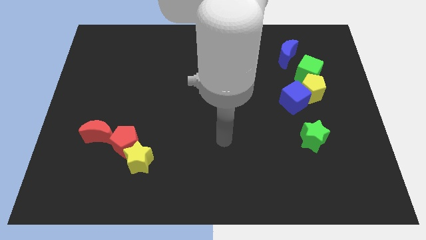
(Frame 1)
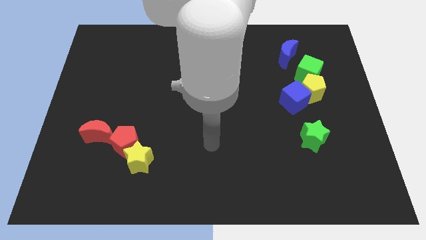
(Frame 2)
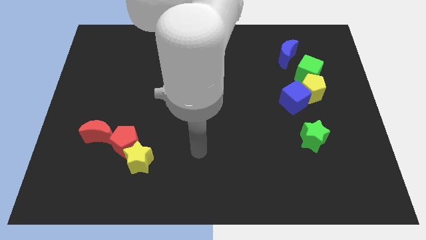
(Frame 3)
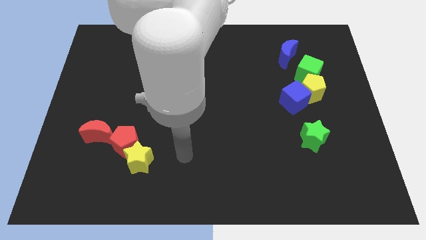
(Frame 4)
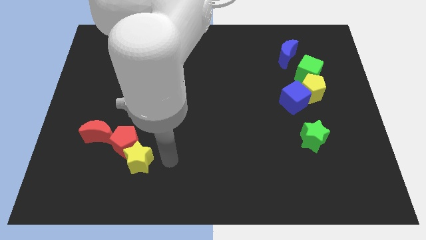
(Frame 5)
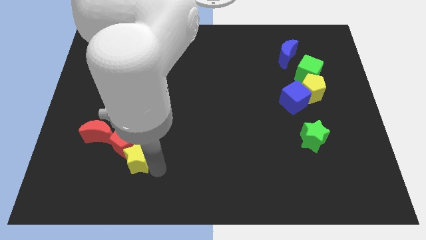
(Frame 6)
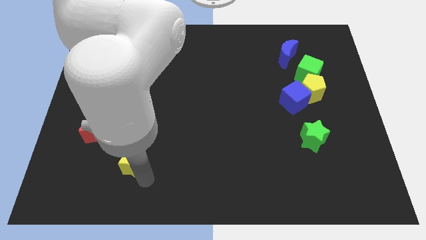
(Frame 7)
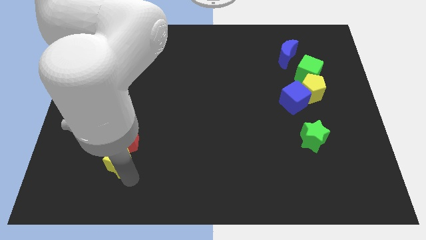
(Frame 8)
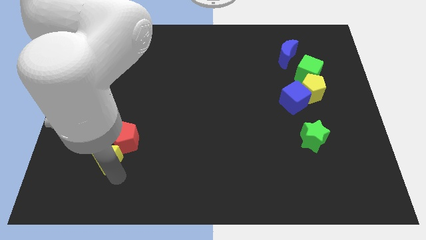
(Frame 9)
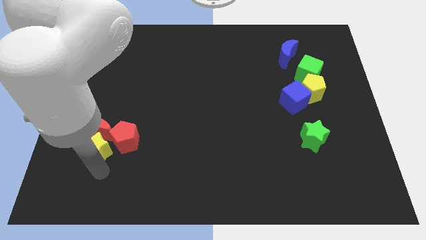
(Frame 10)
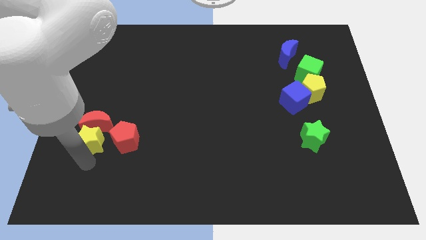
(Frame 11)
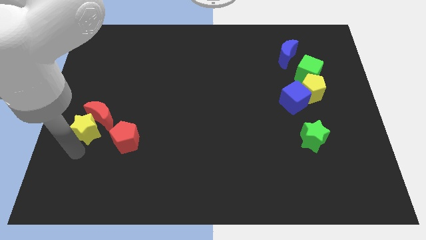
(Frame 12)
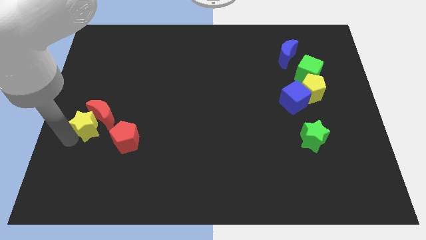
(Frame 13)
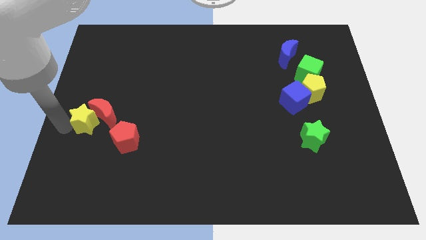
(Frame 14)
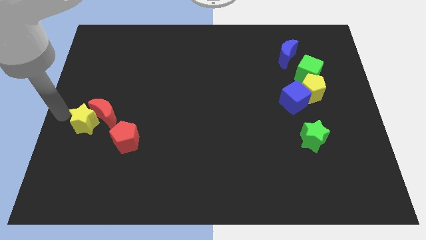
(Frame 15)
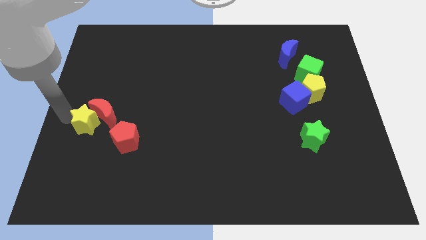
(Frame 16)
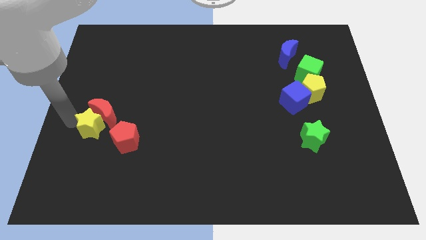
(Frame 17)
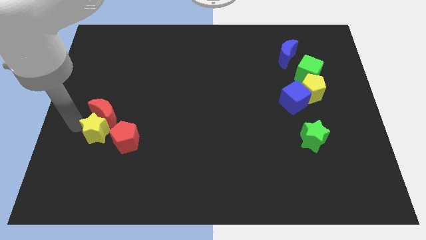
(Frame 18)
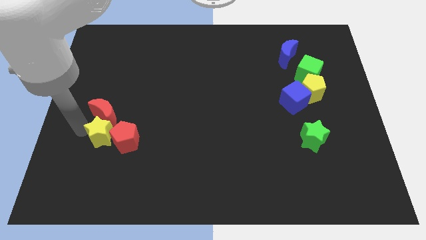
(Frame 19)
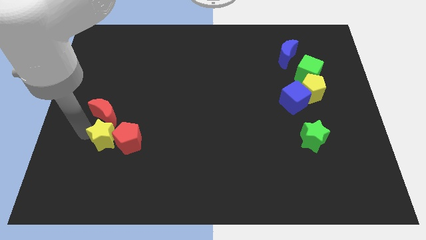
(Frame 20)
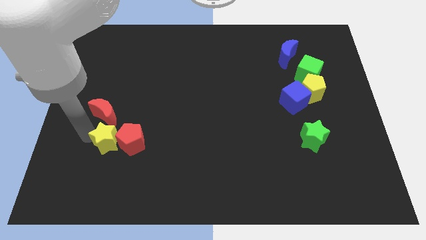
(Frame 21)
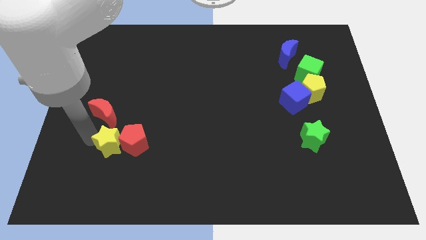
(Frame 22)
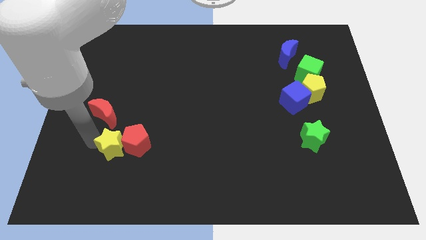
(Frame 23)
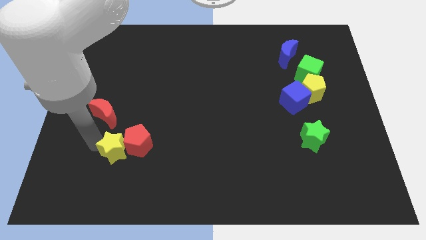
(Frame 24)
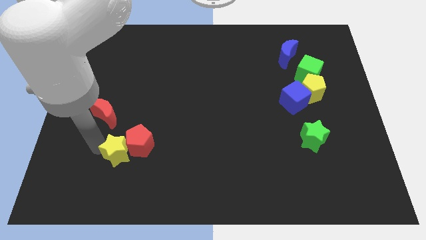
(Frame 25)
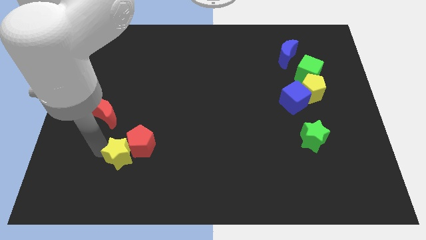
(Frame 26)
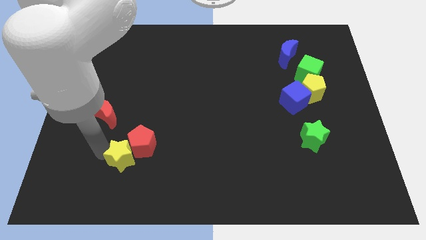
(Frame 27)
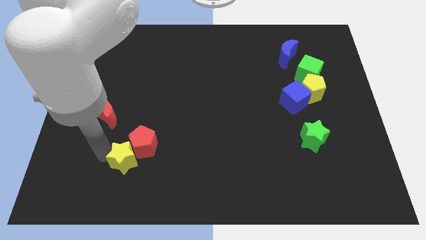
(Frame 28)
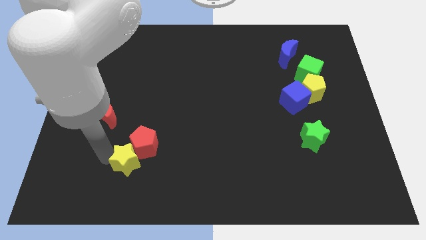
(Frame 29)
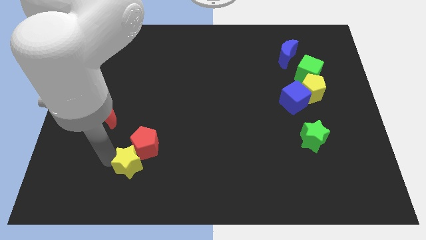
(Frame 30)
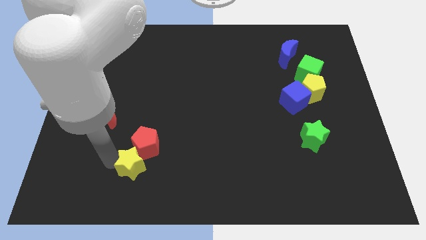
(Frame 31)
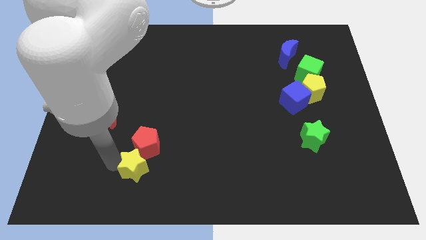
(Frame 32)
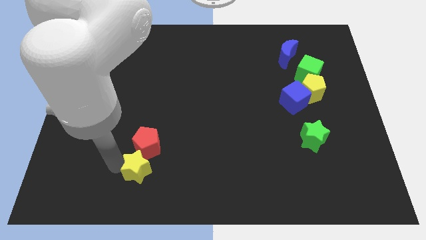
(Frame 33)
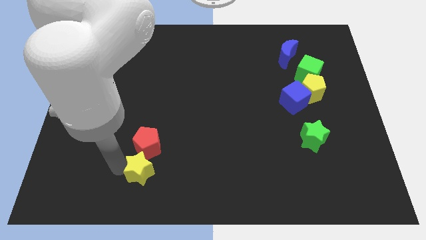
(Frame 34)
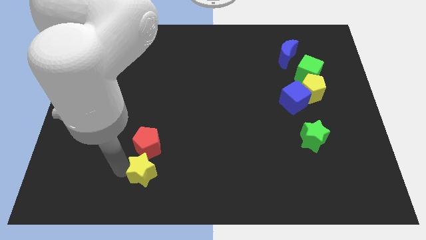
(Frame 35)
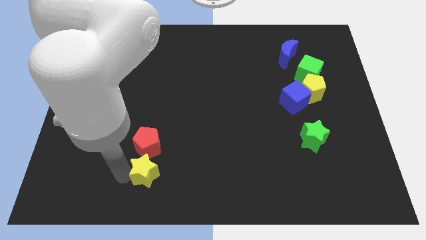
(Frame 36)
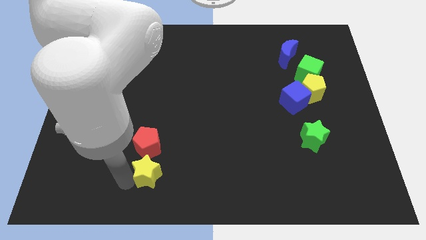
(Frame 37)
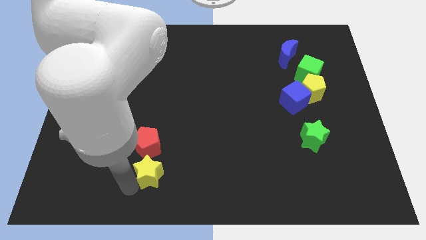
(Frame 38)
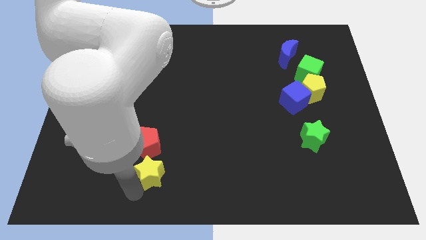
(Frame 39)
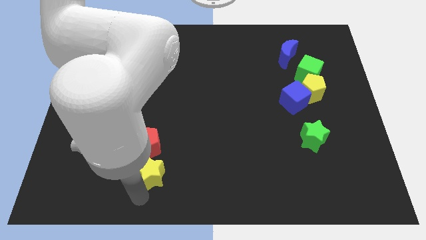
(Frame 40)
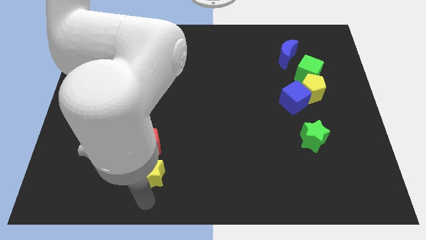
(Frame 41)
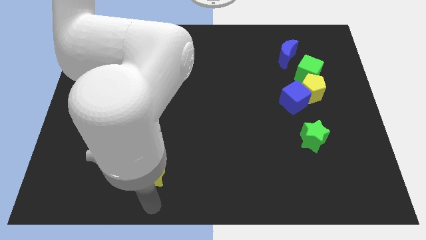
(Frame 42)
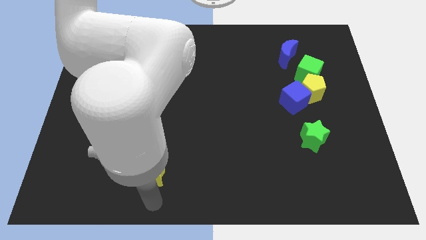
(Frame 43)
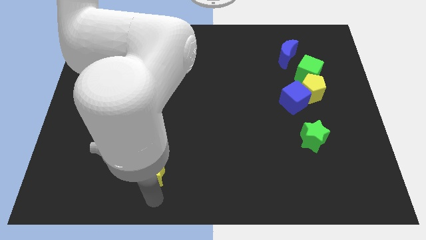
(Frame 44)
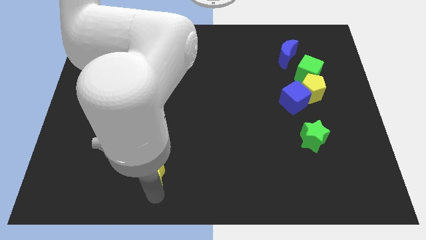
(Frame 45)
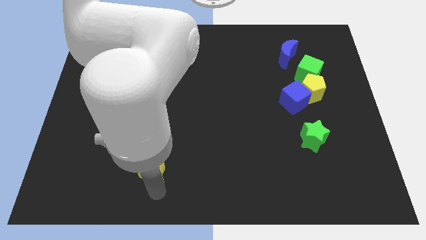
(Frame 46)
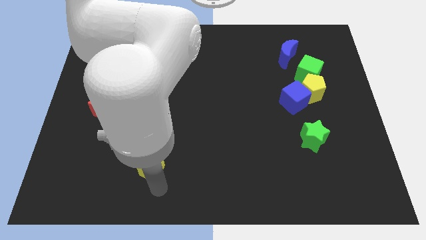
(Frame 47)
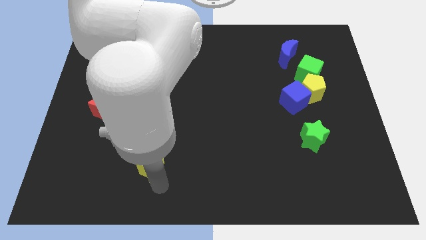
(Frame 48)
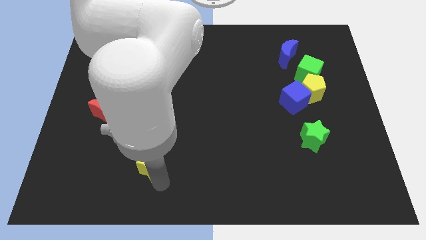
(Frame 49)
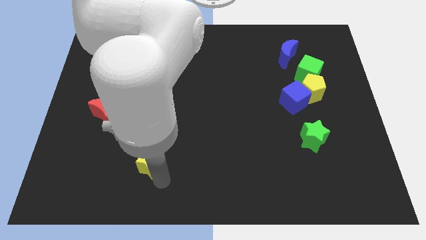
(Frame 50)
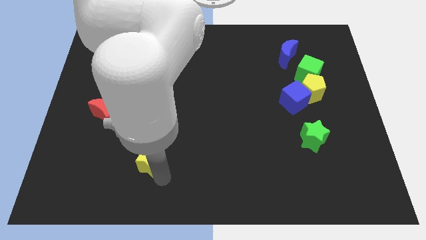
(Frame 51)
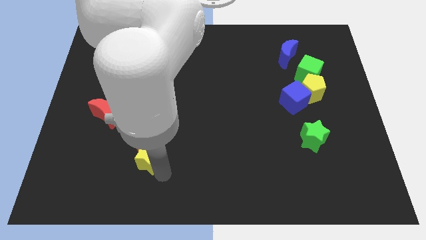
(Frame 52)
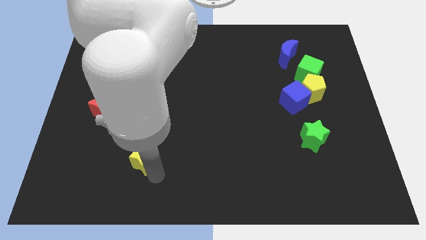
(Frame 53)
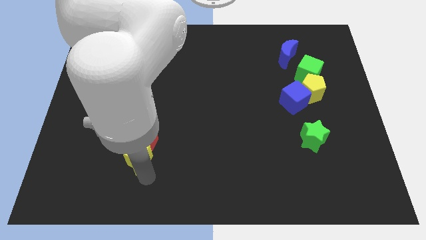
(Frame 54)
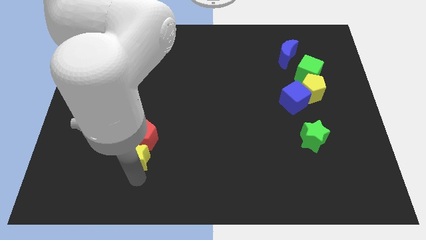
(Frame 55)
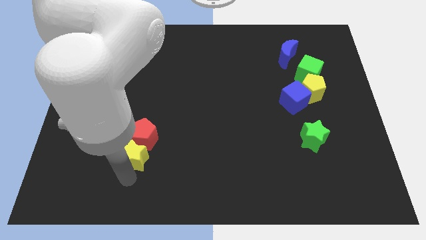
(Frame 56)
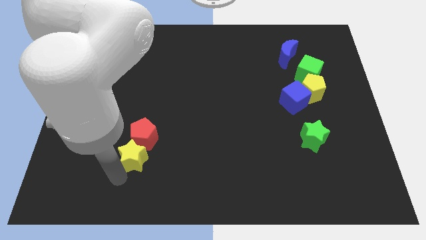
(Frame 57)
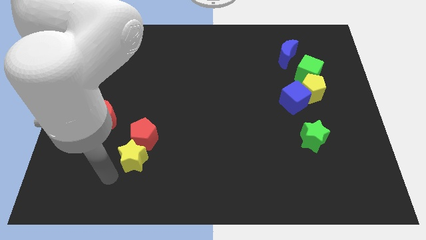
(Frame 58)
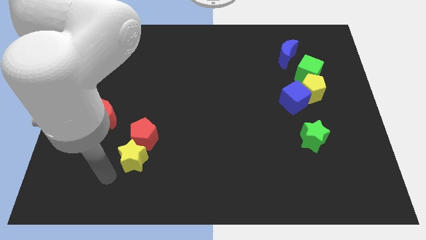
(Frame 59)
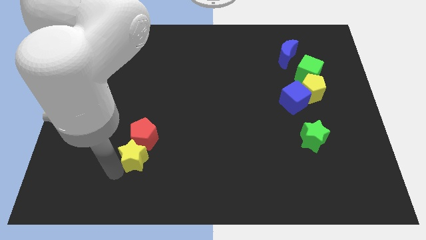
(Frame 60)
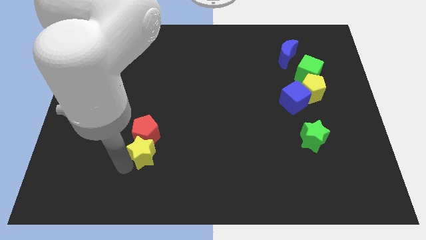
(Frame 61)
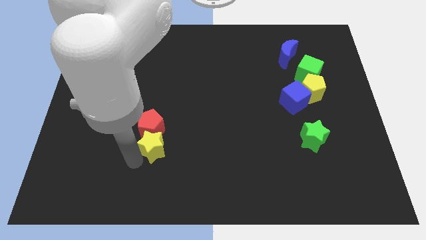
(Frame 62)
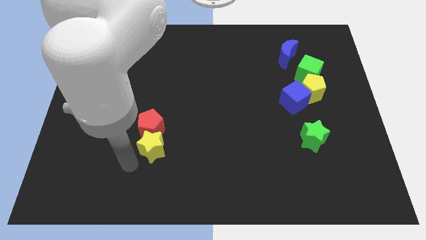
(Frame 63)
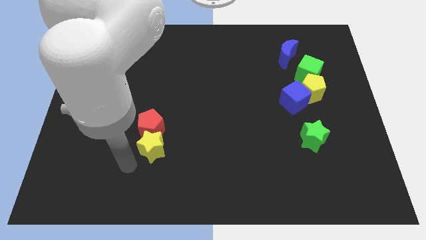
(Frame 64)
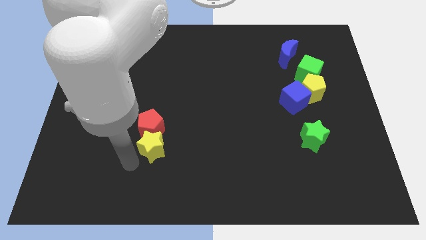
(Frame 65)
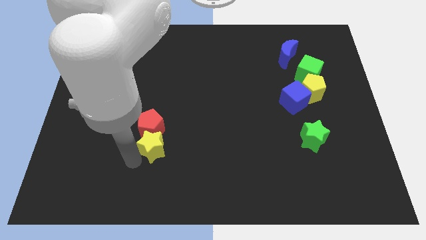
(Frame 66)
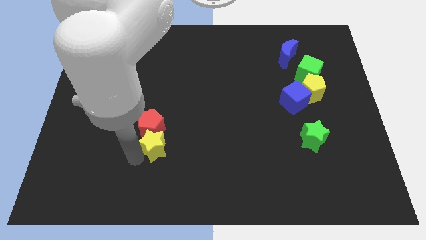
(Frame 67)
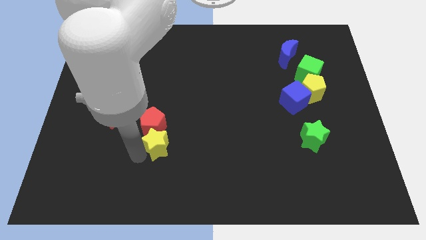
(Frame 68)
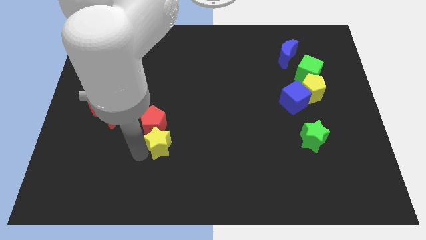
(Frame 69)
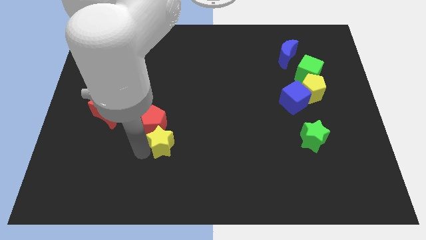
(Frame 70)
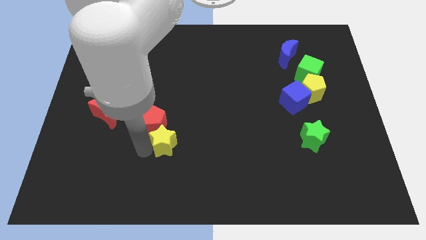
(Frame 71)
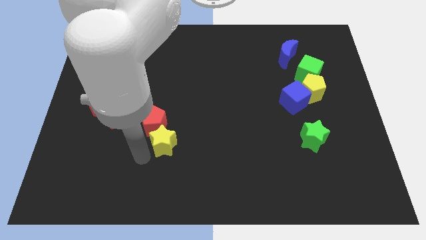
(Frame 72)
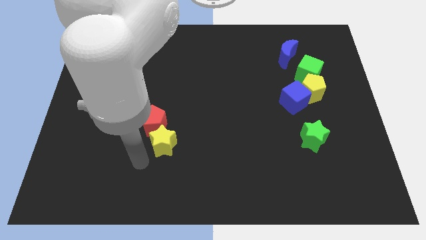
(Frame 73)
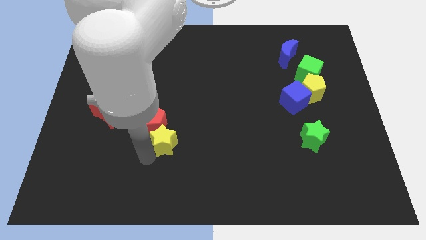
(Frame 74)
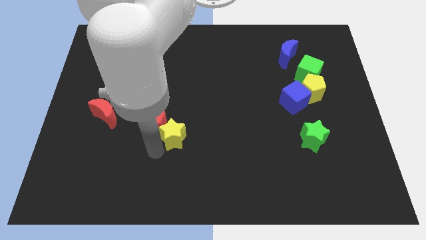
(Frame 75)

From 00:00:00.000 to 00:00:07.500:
slide the yellow star a little up and right diagonally

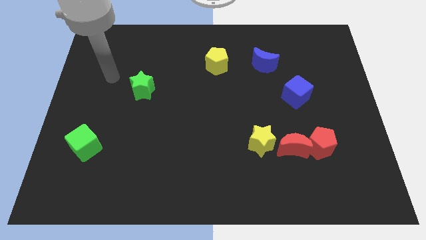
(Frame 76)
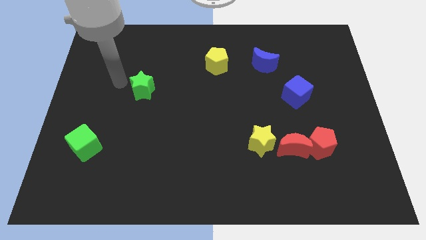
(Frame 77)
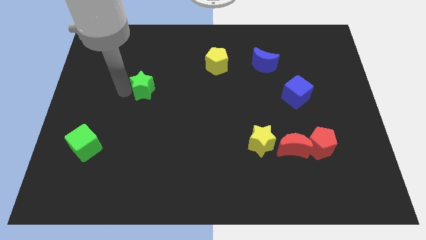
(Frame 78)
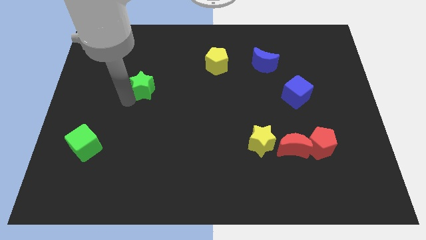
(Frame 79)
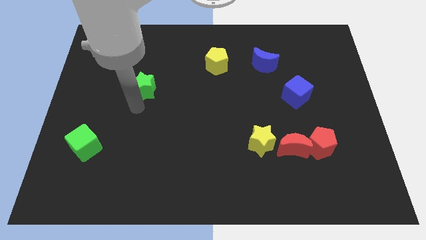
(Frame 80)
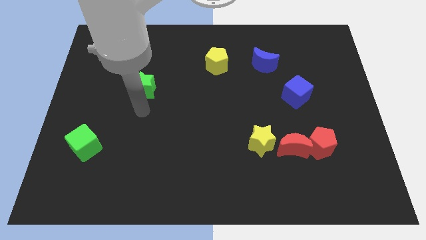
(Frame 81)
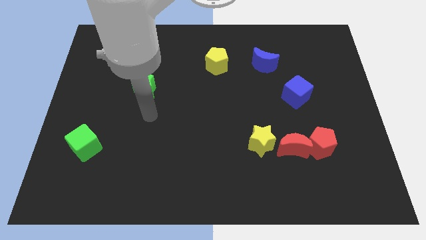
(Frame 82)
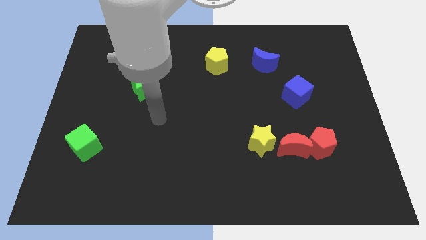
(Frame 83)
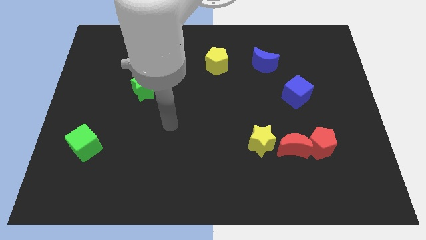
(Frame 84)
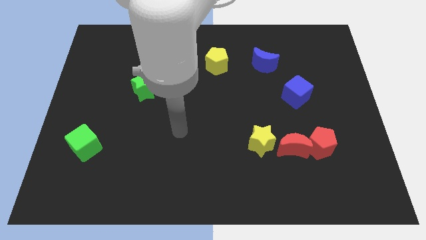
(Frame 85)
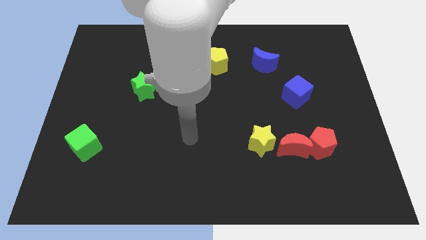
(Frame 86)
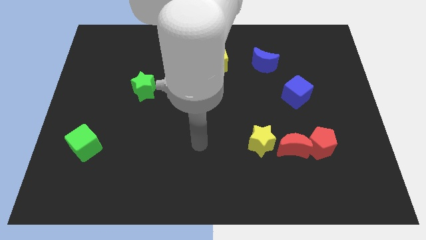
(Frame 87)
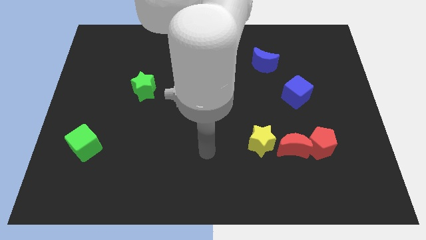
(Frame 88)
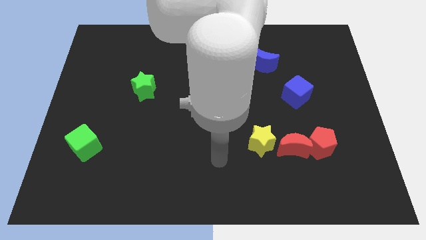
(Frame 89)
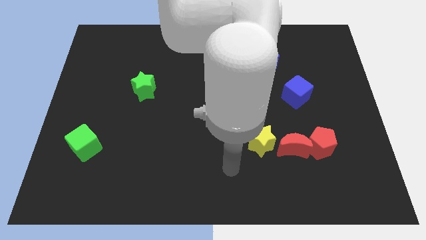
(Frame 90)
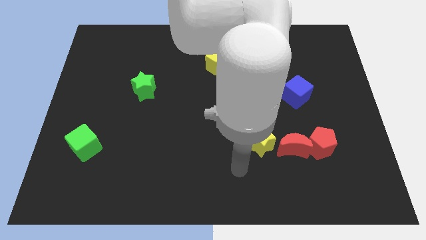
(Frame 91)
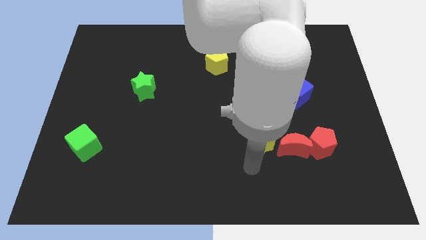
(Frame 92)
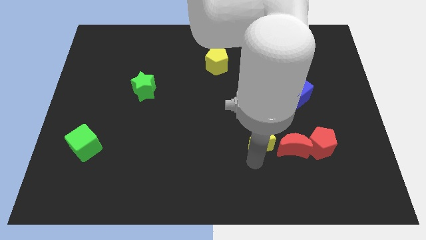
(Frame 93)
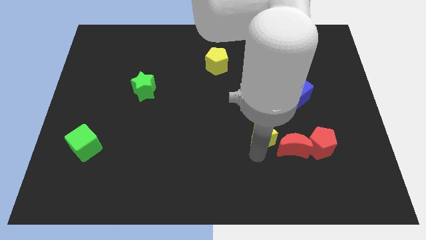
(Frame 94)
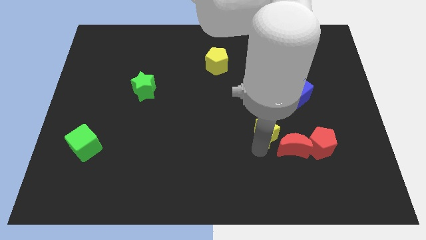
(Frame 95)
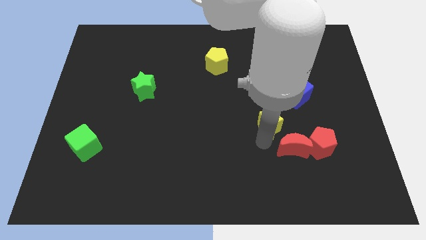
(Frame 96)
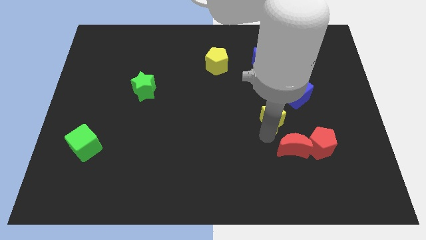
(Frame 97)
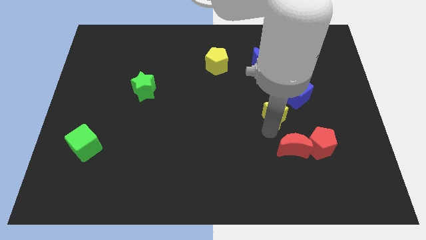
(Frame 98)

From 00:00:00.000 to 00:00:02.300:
push the yellow star upwards slightly
